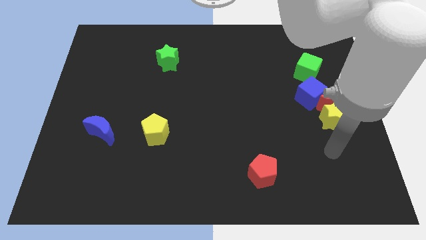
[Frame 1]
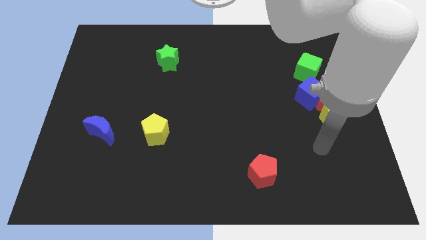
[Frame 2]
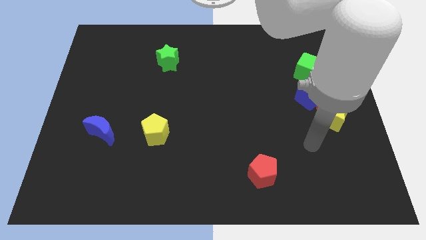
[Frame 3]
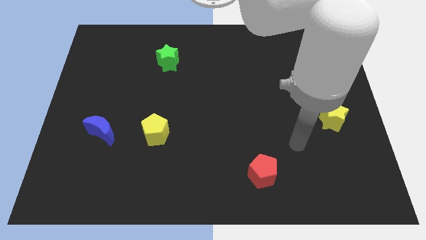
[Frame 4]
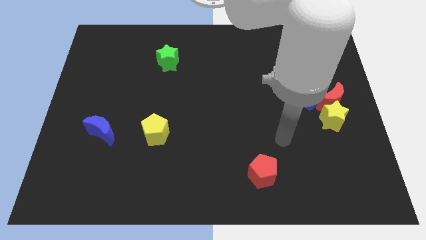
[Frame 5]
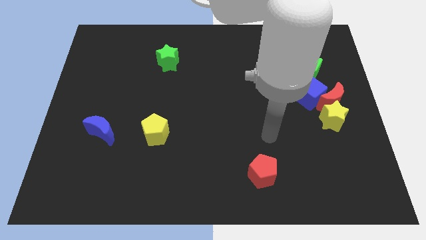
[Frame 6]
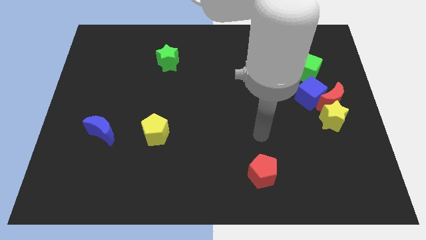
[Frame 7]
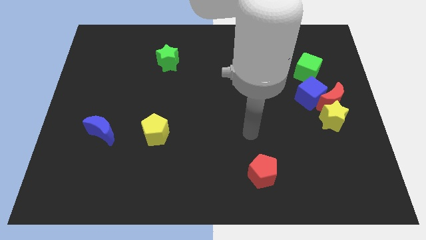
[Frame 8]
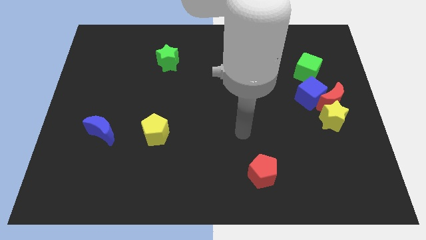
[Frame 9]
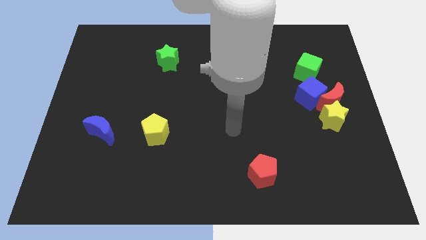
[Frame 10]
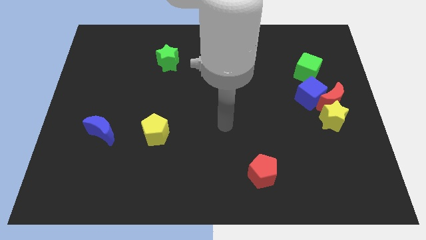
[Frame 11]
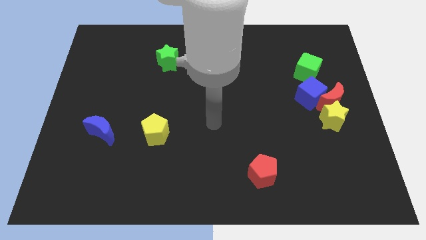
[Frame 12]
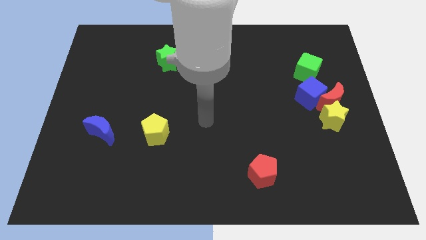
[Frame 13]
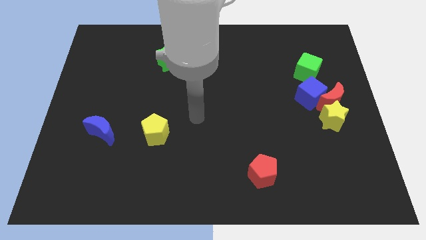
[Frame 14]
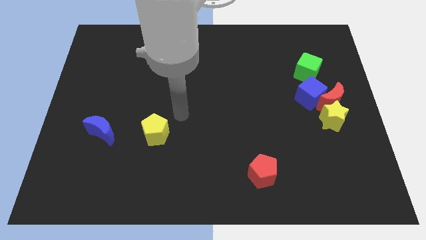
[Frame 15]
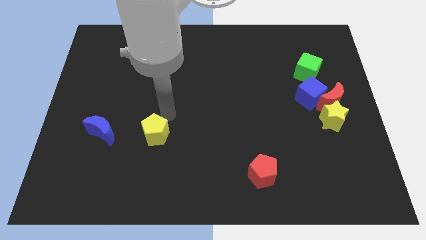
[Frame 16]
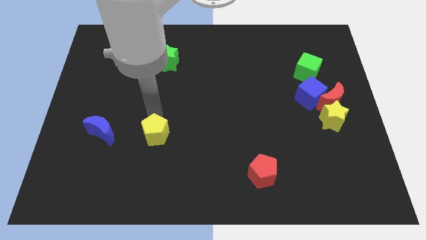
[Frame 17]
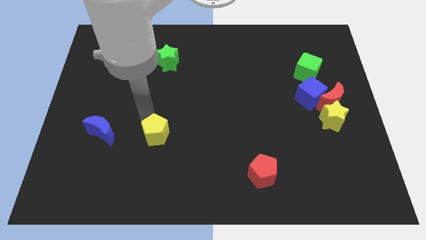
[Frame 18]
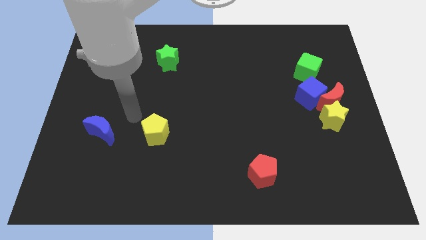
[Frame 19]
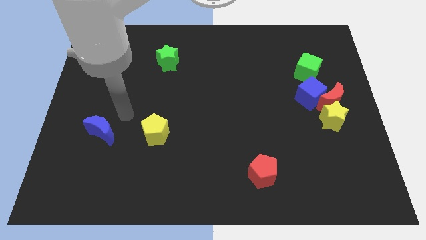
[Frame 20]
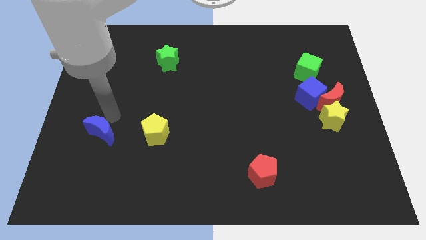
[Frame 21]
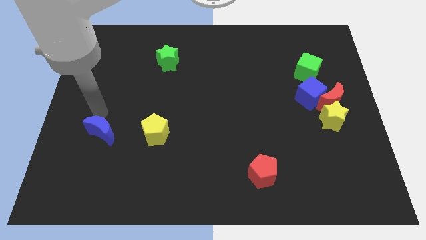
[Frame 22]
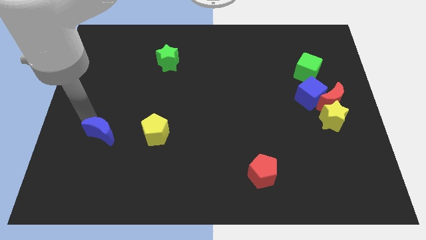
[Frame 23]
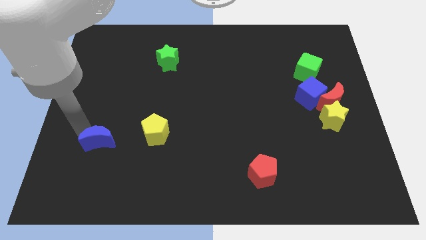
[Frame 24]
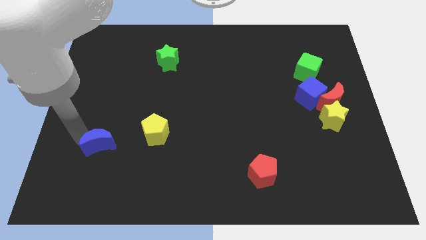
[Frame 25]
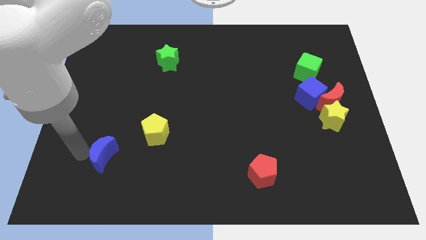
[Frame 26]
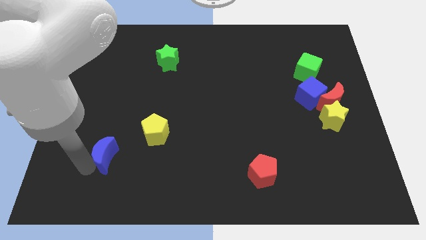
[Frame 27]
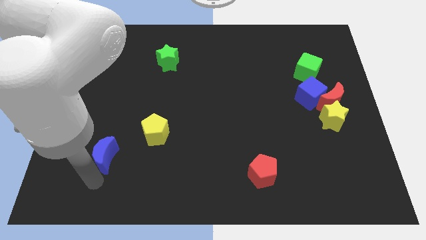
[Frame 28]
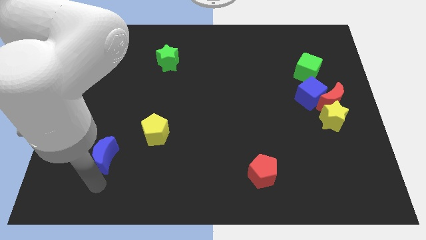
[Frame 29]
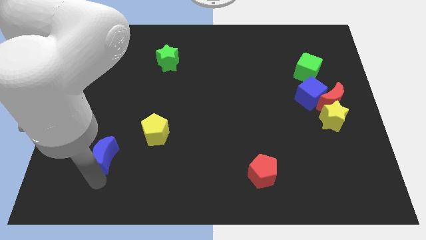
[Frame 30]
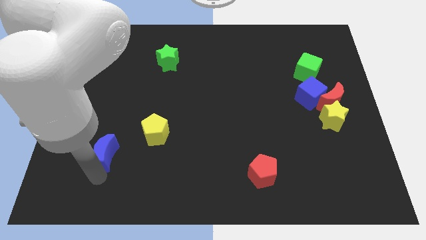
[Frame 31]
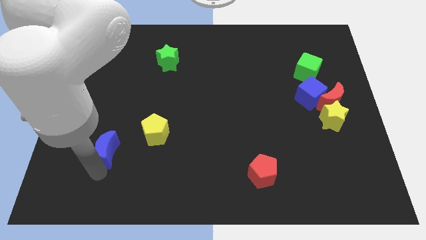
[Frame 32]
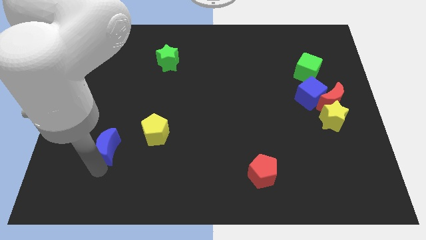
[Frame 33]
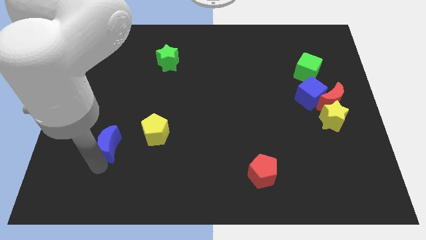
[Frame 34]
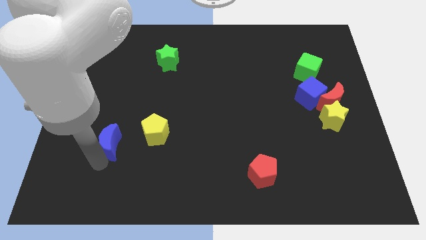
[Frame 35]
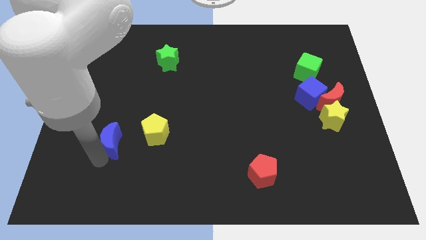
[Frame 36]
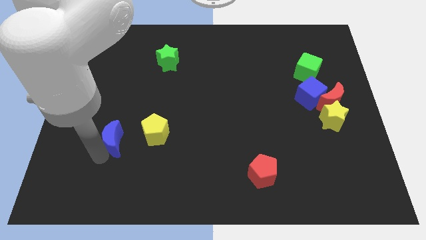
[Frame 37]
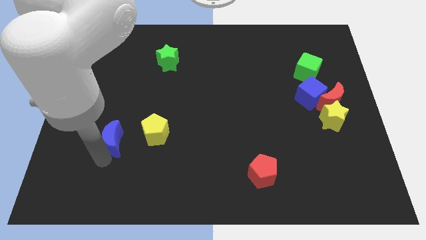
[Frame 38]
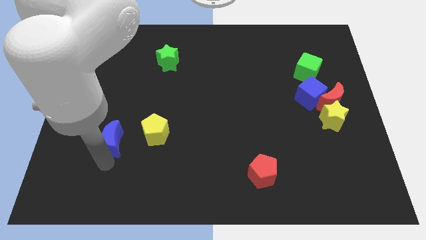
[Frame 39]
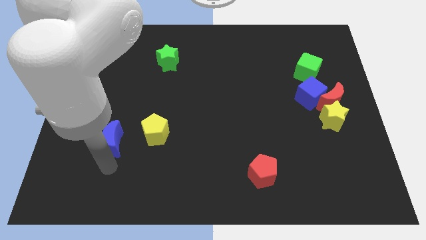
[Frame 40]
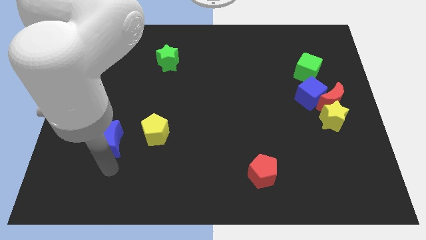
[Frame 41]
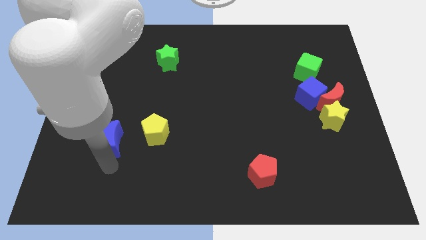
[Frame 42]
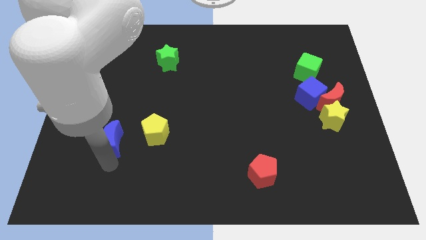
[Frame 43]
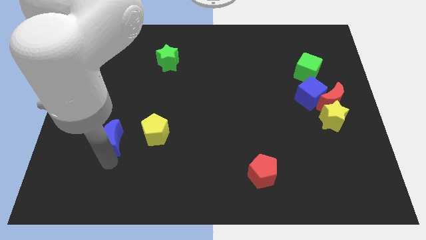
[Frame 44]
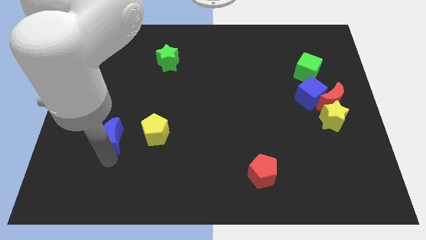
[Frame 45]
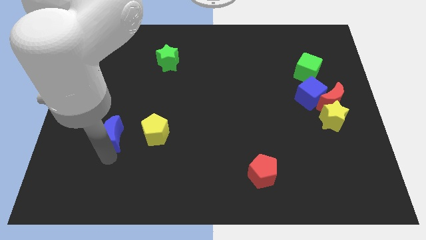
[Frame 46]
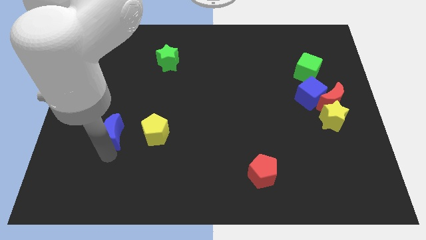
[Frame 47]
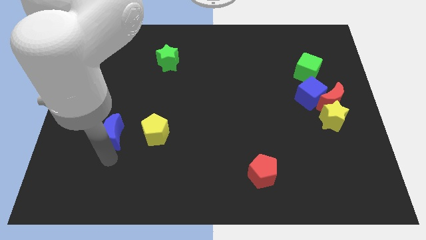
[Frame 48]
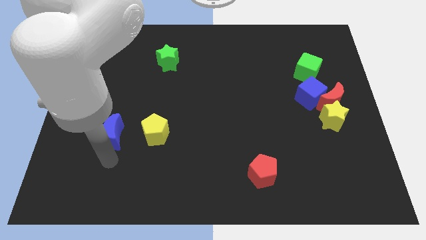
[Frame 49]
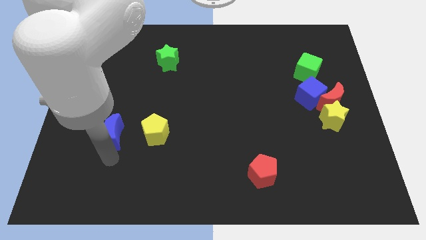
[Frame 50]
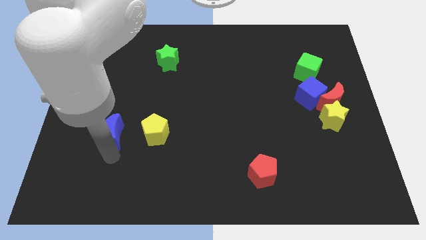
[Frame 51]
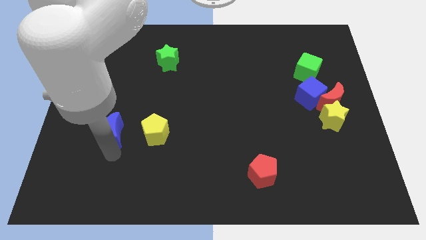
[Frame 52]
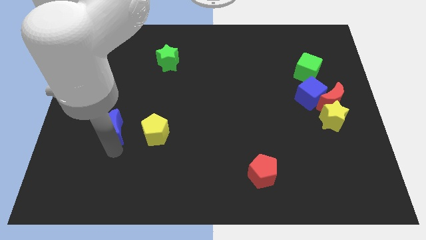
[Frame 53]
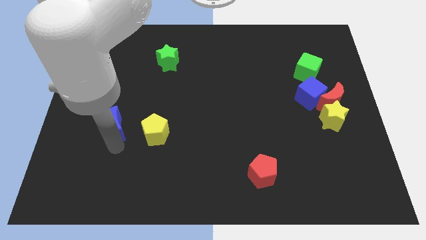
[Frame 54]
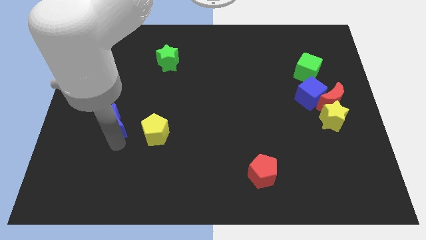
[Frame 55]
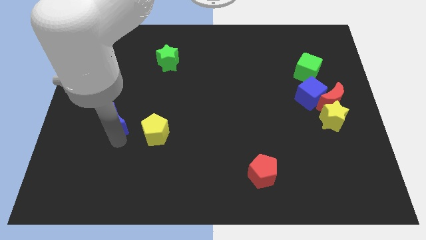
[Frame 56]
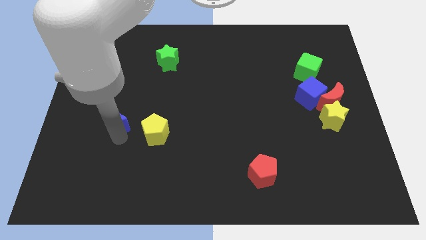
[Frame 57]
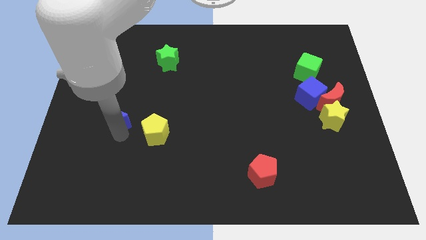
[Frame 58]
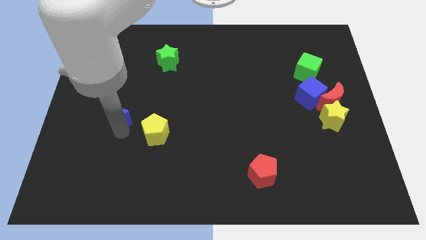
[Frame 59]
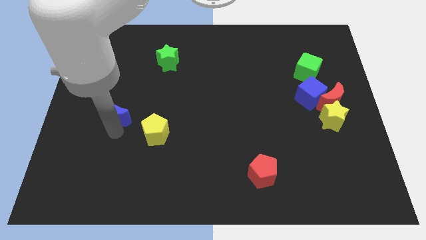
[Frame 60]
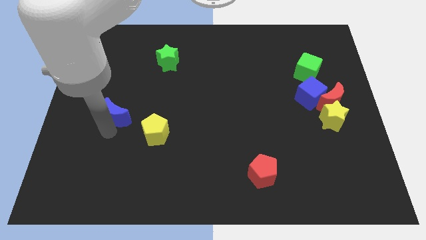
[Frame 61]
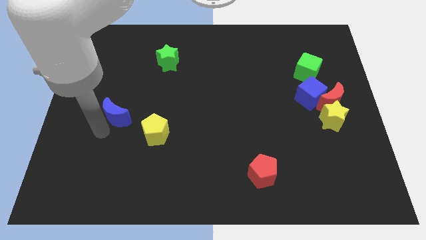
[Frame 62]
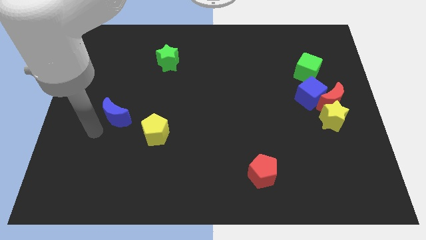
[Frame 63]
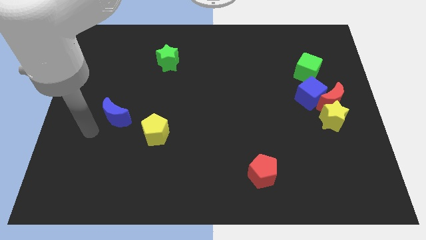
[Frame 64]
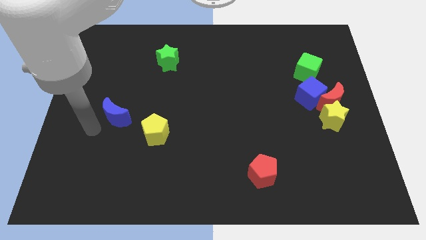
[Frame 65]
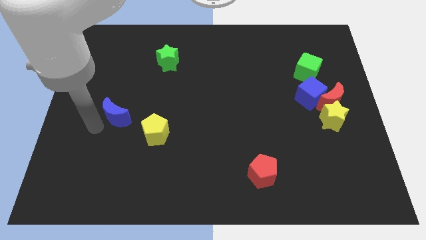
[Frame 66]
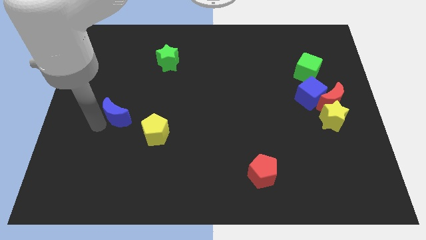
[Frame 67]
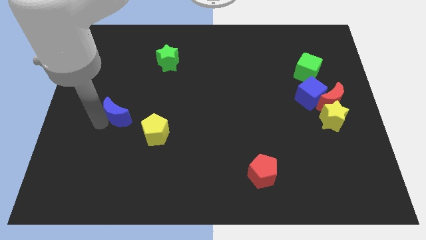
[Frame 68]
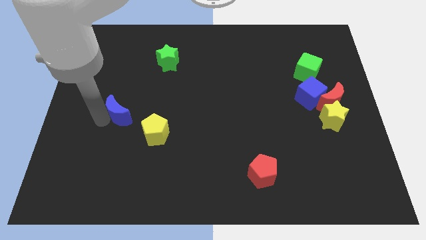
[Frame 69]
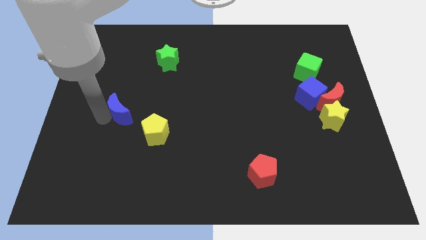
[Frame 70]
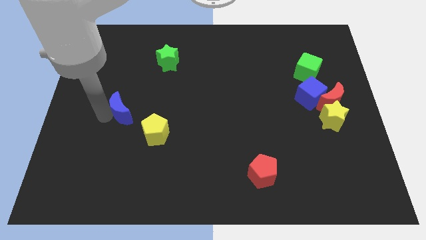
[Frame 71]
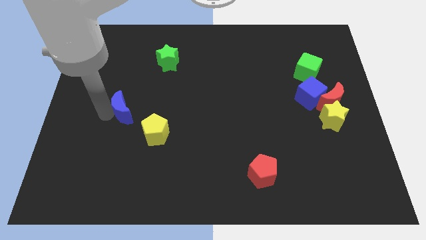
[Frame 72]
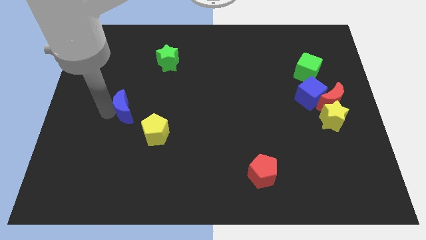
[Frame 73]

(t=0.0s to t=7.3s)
push the blue moon a little bit diagonally upwards and right

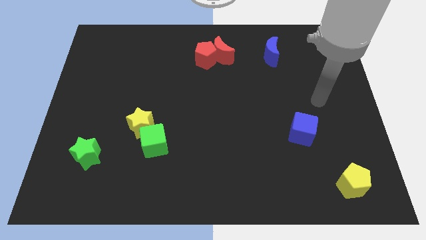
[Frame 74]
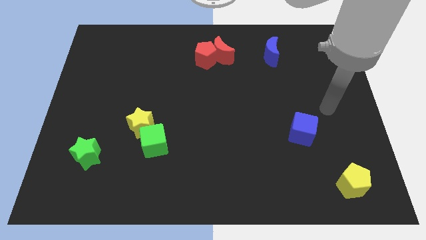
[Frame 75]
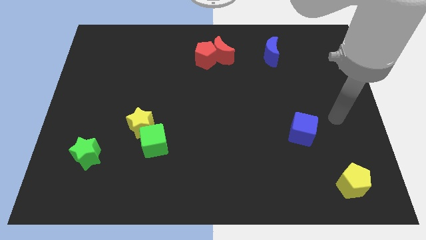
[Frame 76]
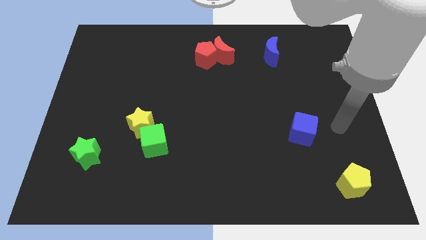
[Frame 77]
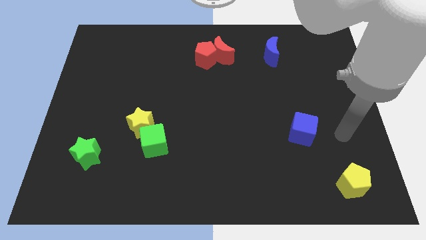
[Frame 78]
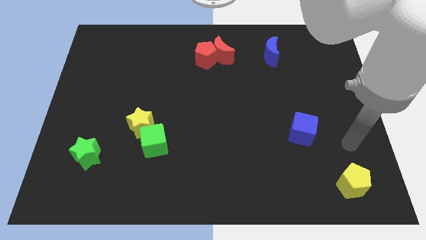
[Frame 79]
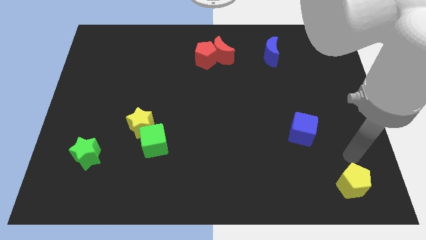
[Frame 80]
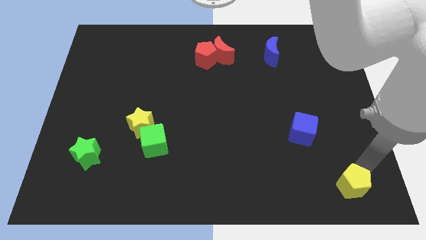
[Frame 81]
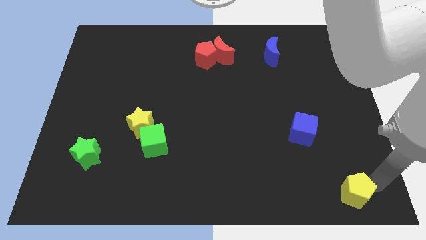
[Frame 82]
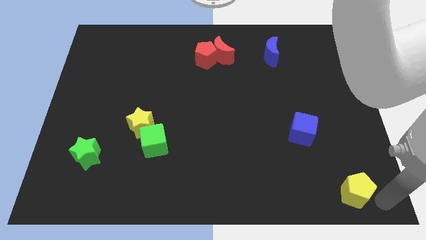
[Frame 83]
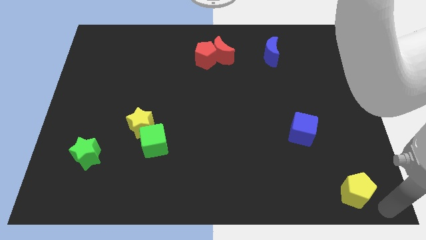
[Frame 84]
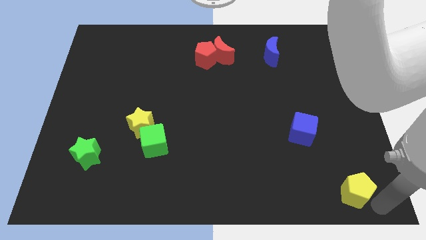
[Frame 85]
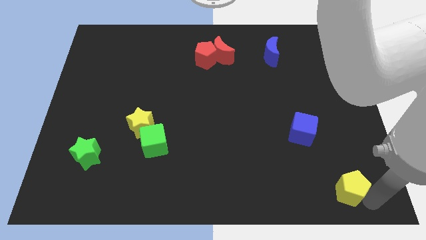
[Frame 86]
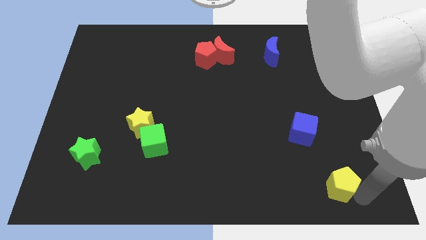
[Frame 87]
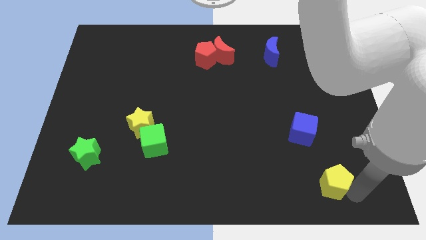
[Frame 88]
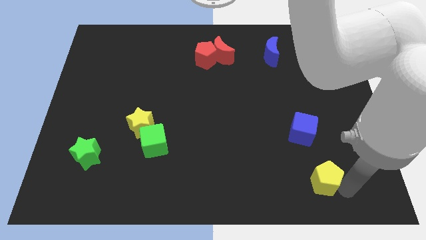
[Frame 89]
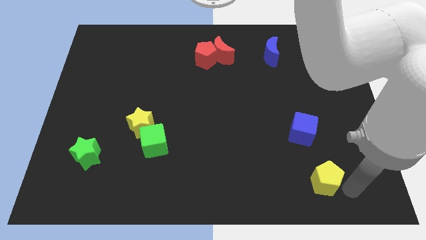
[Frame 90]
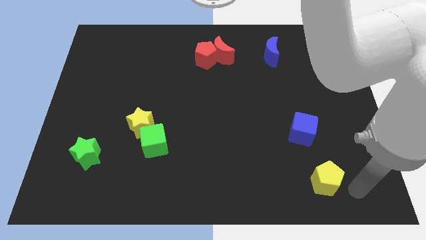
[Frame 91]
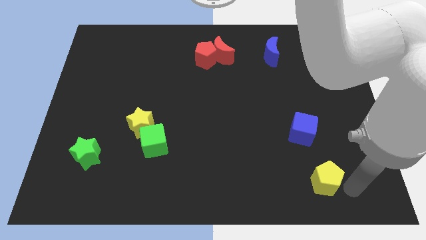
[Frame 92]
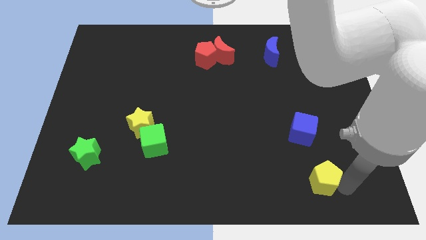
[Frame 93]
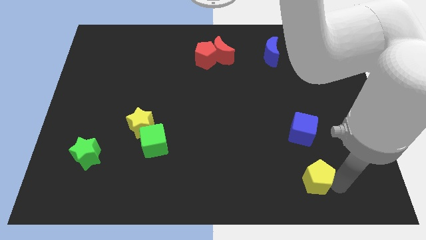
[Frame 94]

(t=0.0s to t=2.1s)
slightly push the yellow pentagon left
